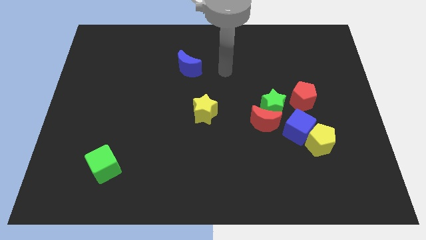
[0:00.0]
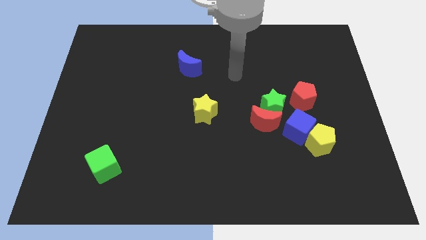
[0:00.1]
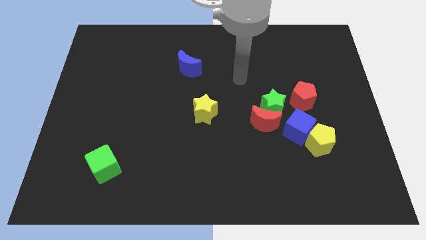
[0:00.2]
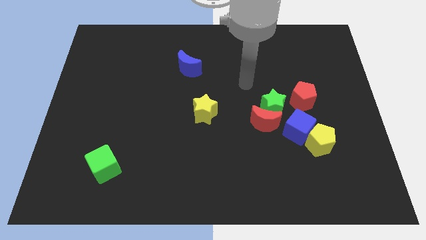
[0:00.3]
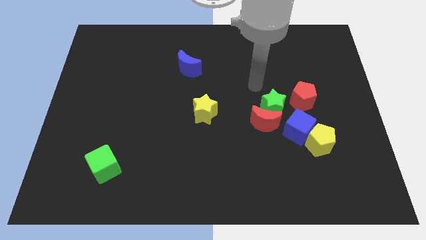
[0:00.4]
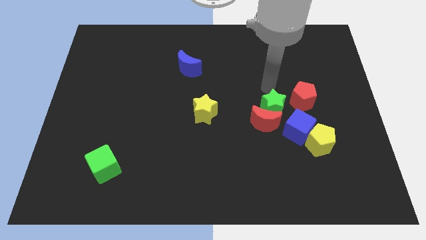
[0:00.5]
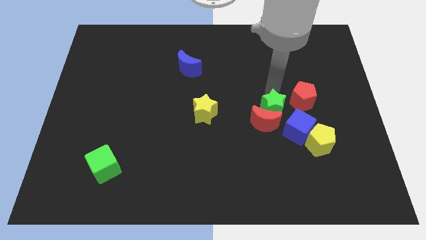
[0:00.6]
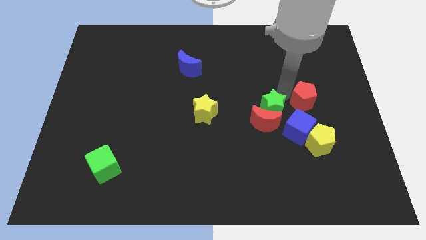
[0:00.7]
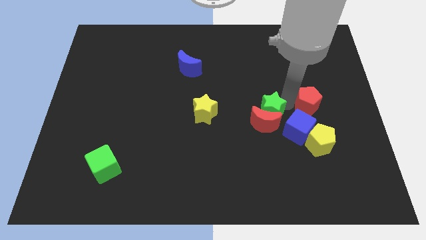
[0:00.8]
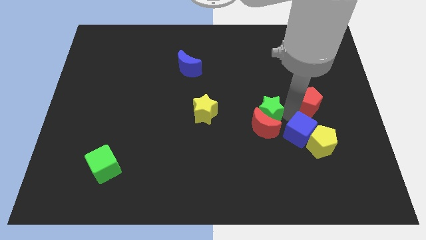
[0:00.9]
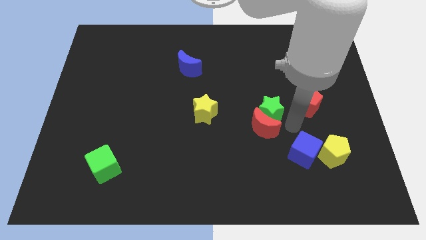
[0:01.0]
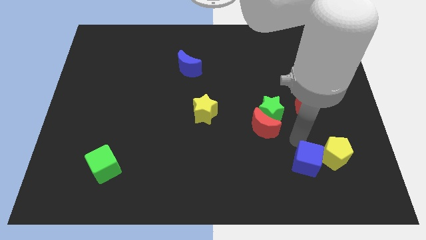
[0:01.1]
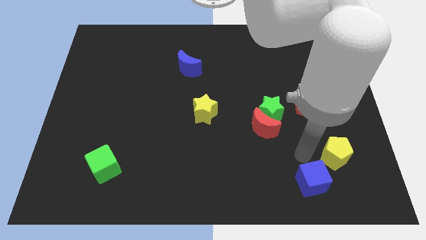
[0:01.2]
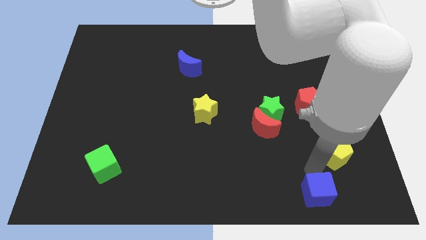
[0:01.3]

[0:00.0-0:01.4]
move the yellow pentagon away from the blue cube

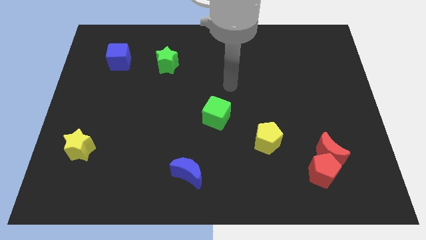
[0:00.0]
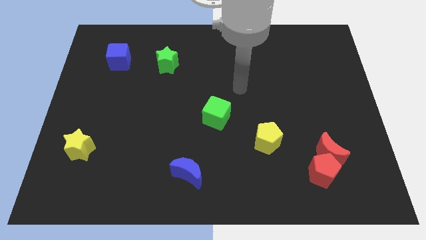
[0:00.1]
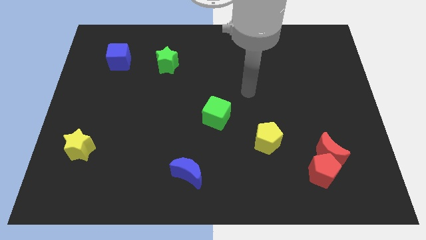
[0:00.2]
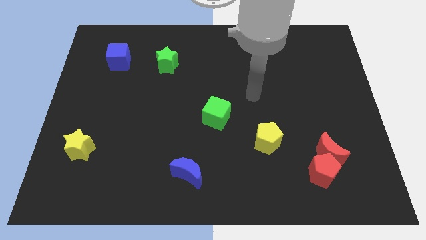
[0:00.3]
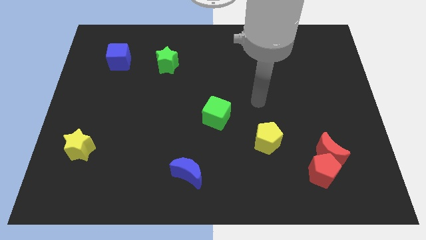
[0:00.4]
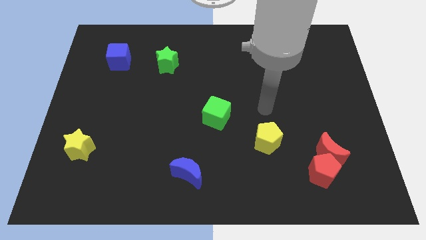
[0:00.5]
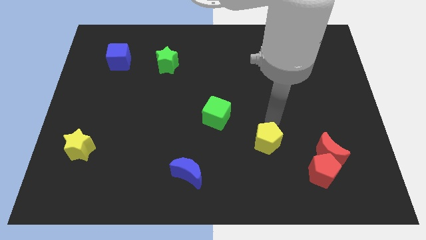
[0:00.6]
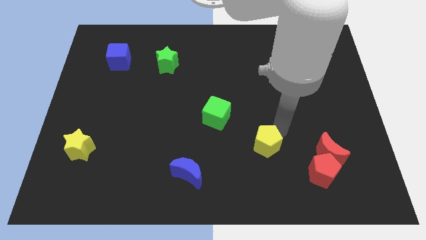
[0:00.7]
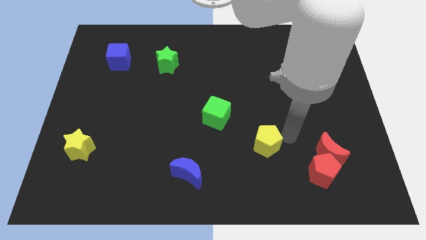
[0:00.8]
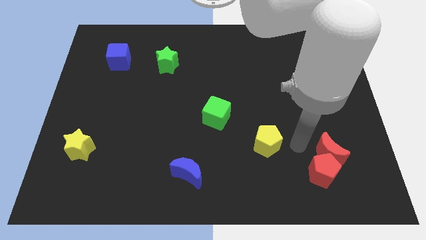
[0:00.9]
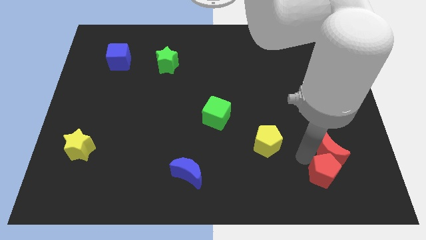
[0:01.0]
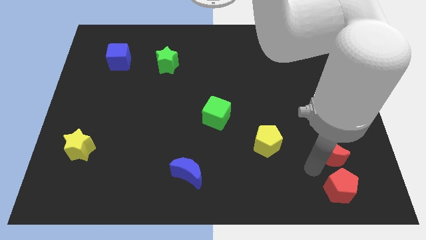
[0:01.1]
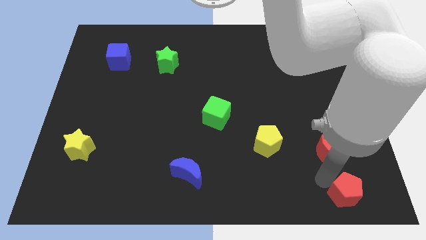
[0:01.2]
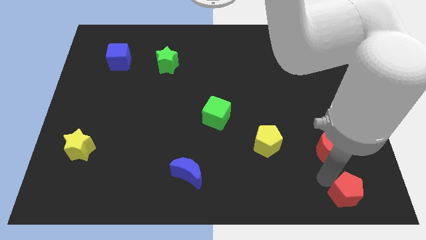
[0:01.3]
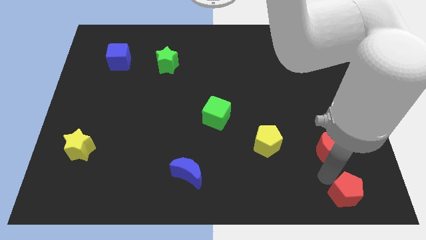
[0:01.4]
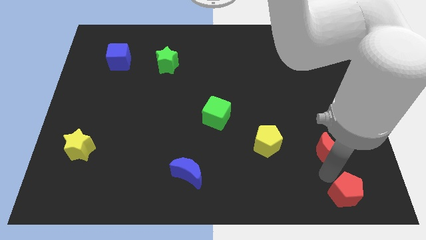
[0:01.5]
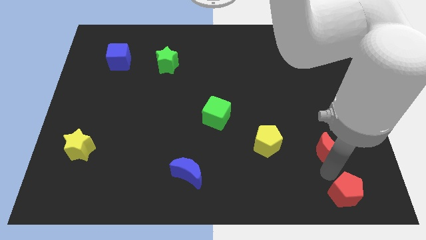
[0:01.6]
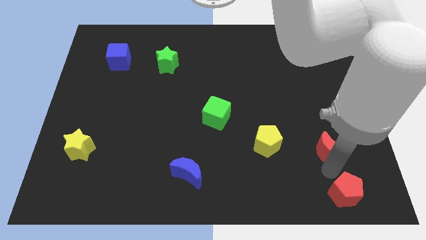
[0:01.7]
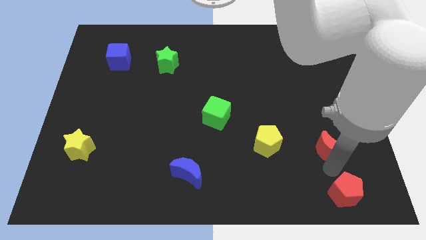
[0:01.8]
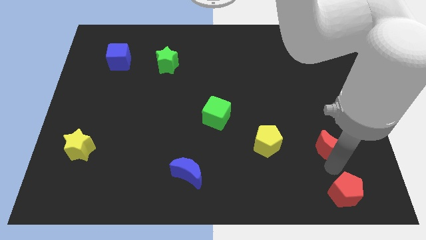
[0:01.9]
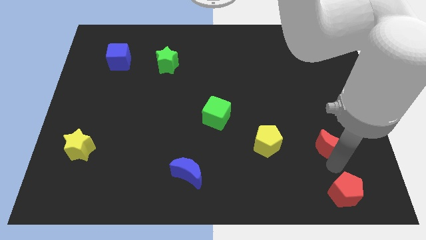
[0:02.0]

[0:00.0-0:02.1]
pull the red moon apart from the red pentagon

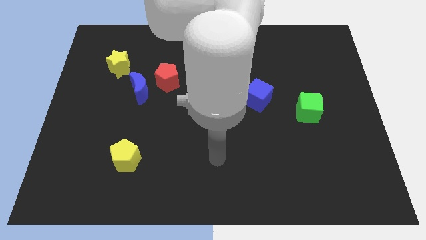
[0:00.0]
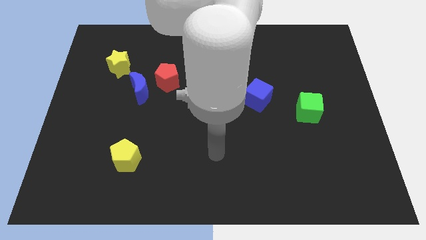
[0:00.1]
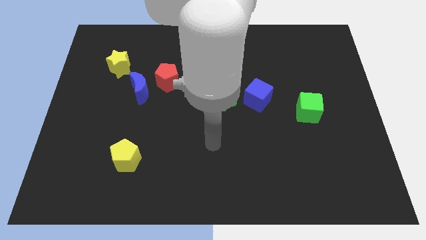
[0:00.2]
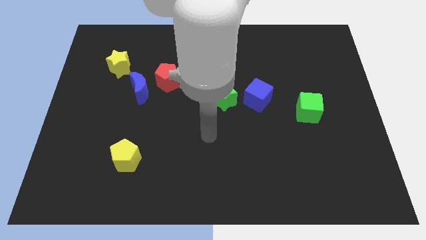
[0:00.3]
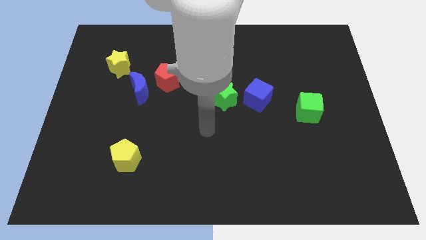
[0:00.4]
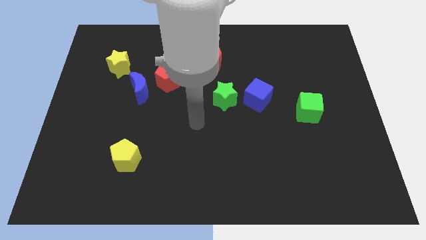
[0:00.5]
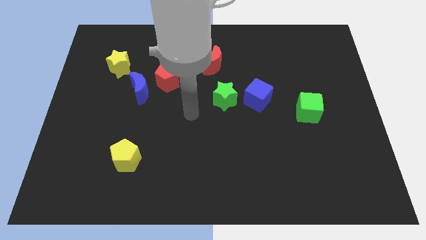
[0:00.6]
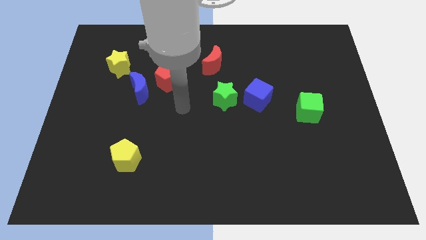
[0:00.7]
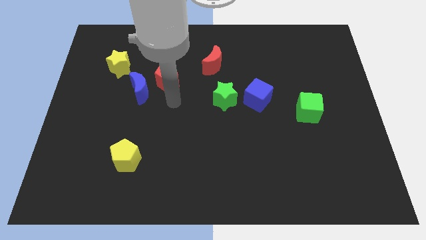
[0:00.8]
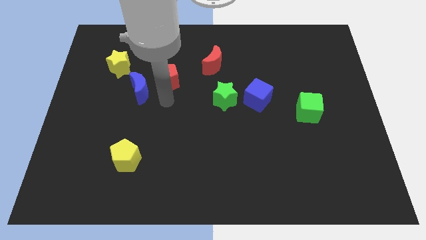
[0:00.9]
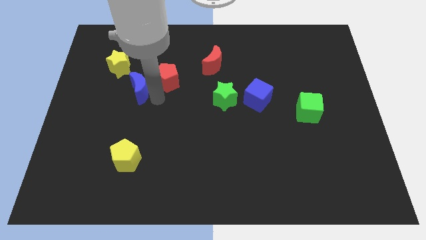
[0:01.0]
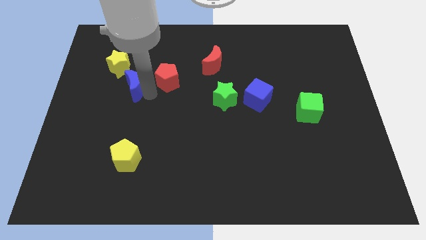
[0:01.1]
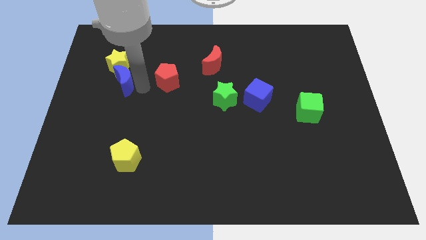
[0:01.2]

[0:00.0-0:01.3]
separate the red pentagon from the blue moon

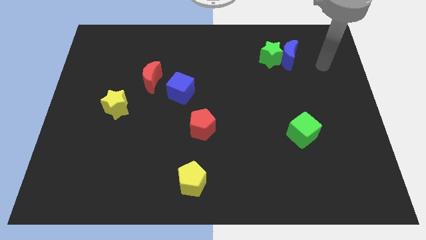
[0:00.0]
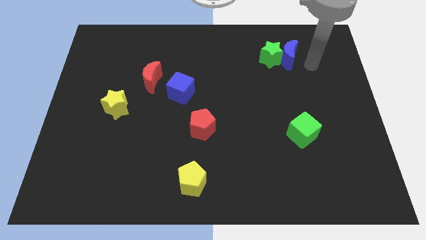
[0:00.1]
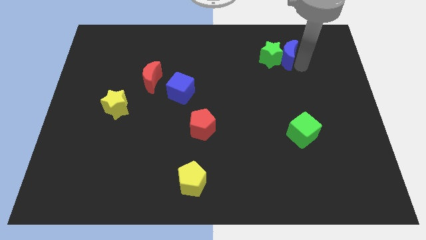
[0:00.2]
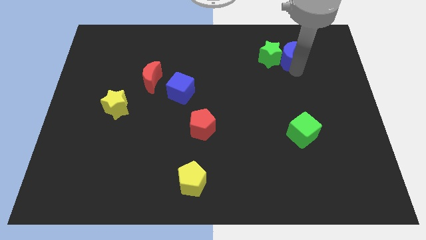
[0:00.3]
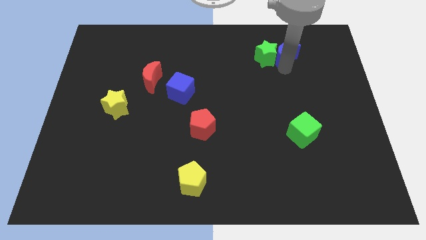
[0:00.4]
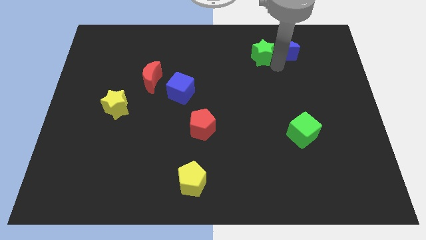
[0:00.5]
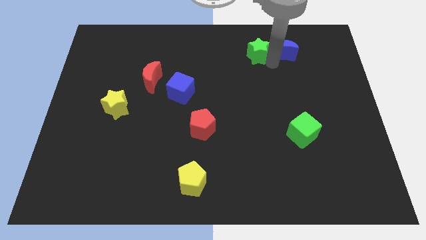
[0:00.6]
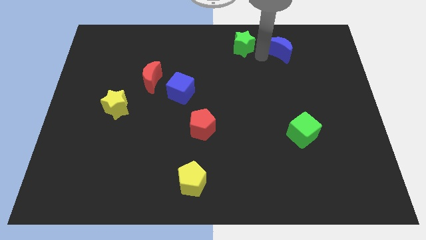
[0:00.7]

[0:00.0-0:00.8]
separate the blue moon from the green star

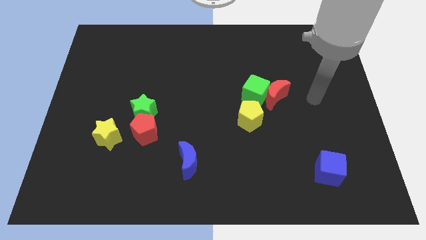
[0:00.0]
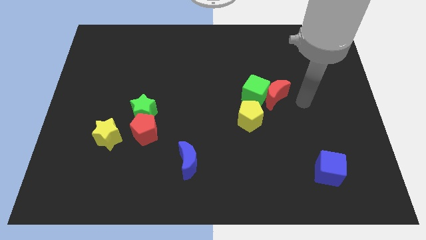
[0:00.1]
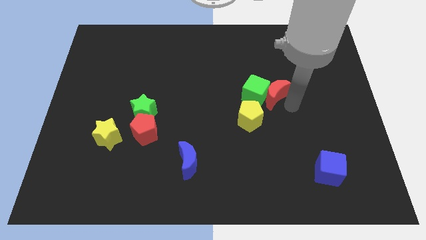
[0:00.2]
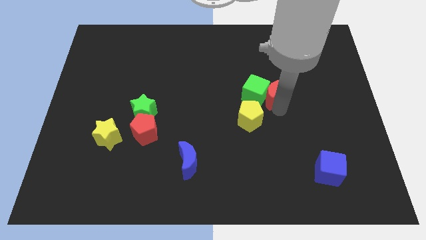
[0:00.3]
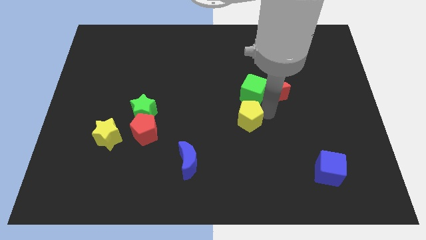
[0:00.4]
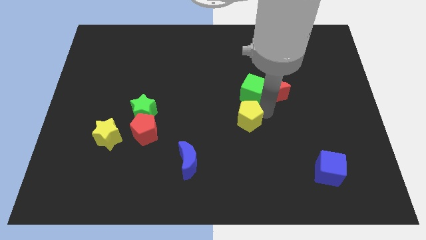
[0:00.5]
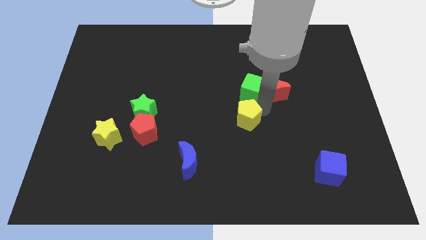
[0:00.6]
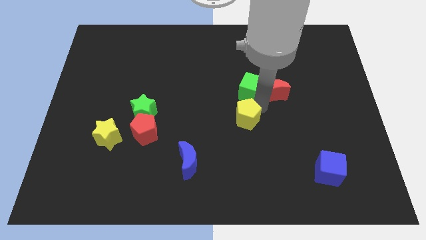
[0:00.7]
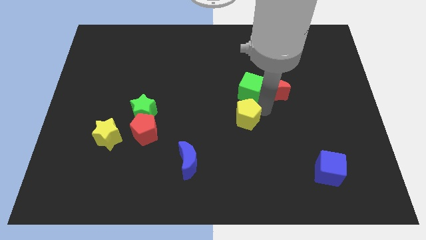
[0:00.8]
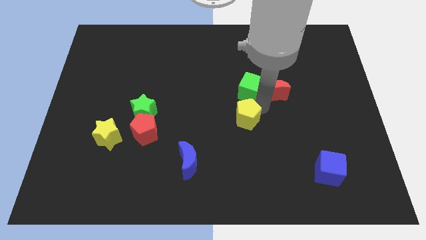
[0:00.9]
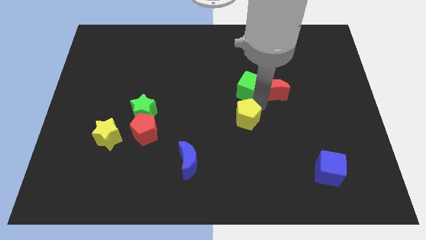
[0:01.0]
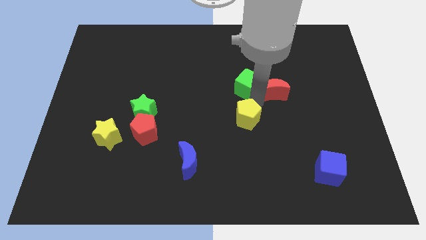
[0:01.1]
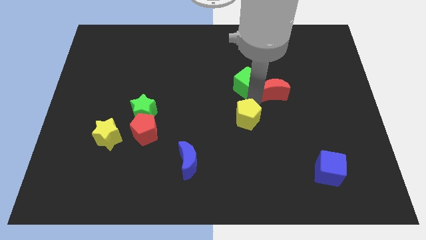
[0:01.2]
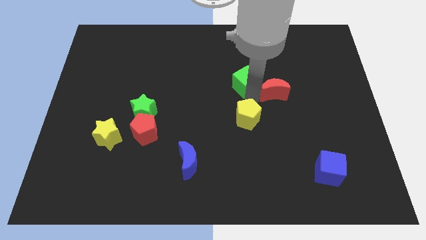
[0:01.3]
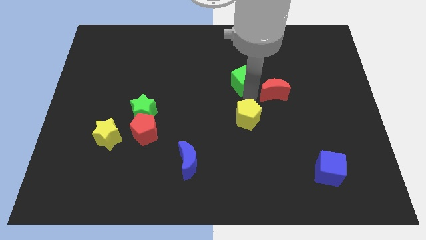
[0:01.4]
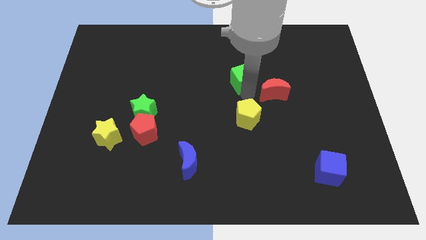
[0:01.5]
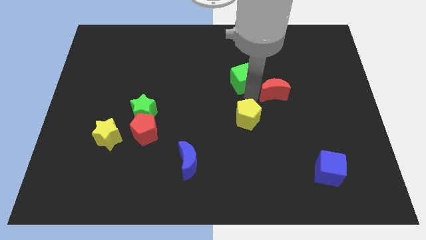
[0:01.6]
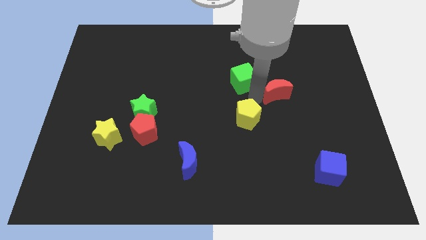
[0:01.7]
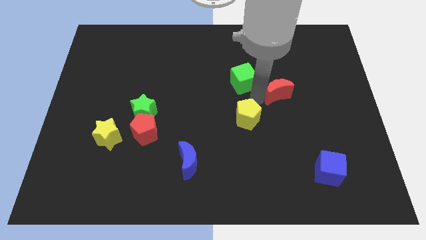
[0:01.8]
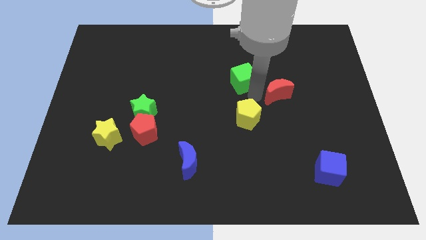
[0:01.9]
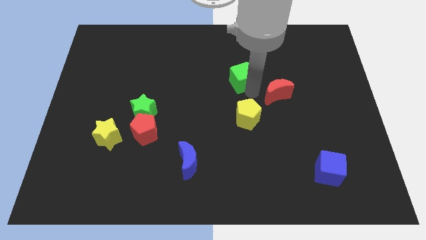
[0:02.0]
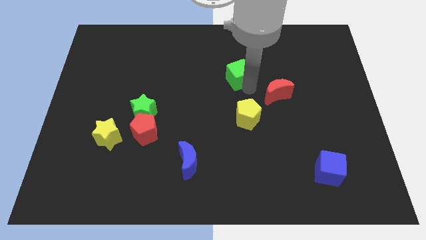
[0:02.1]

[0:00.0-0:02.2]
pull the green cube apart from the red moon and yellow pentagon

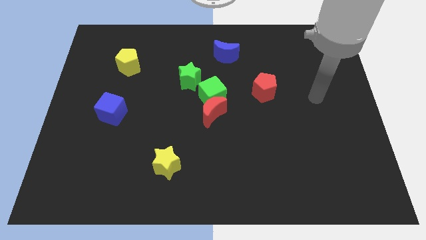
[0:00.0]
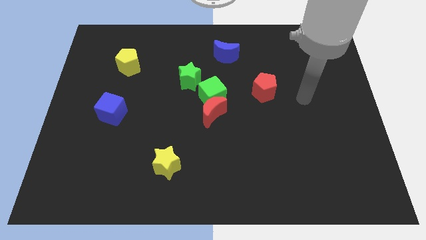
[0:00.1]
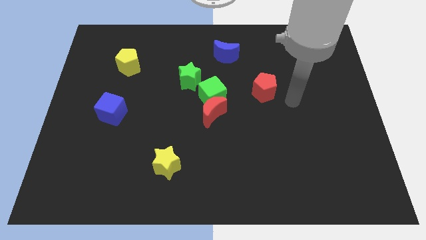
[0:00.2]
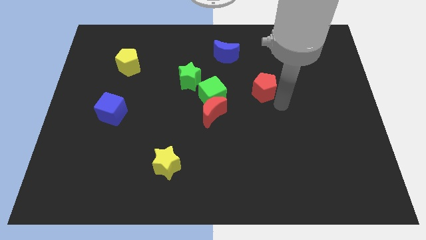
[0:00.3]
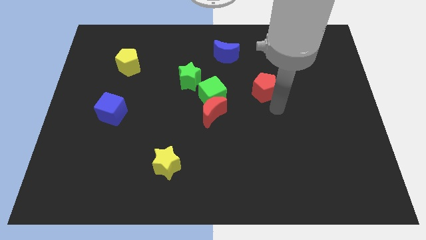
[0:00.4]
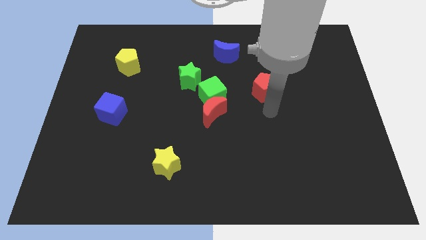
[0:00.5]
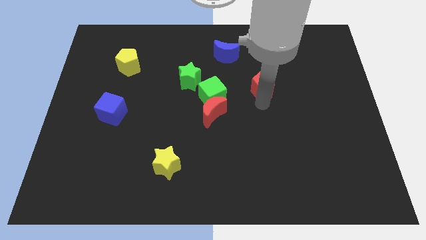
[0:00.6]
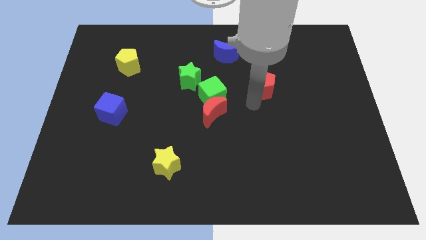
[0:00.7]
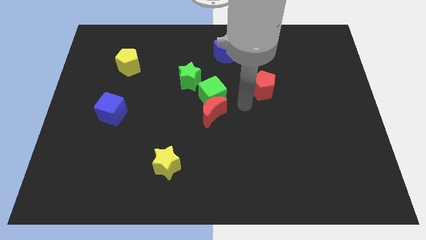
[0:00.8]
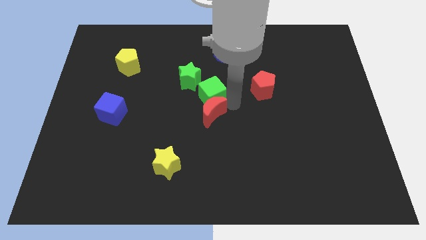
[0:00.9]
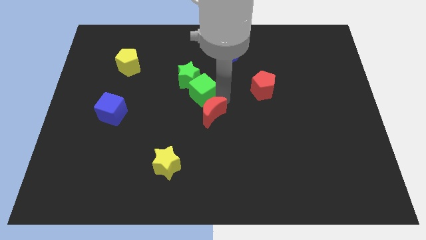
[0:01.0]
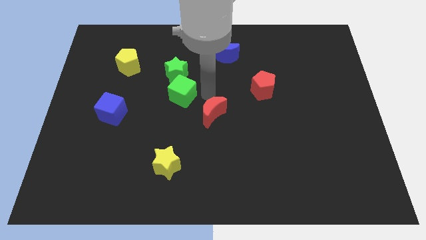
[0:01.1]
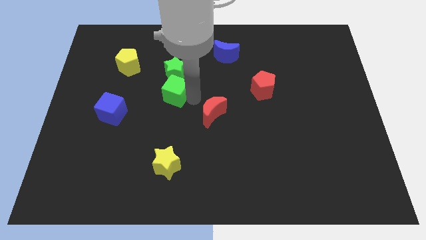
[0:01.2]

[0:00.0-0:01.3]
move the red moon away from the green cube

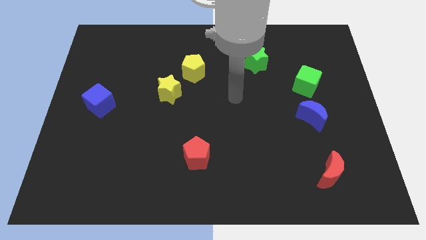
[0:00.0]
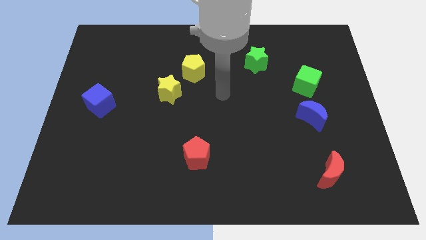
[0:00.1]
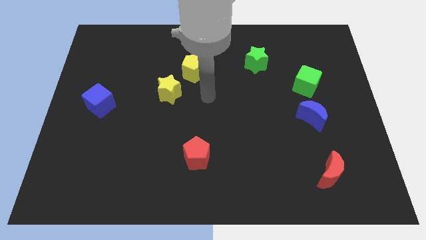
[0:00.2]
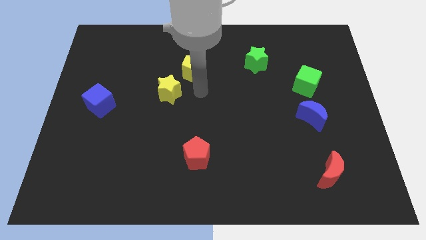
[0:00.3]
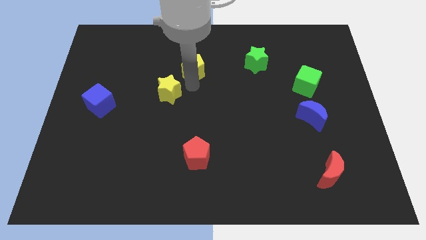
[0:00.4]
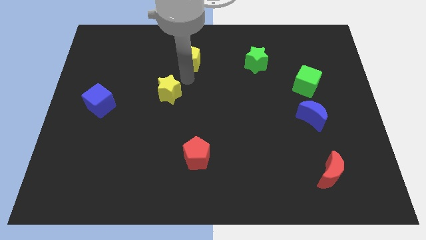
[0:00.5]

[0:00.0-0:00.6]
move the yellow star away from the yellow pentagon
